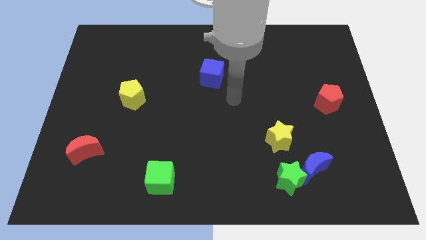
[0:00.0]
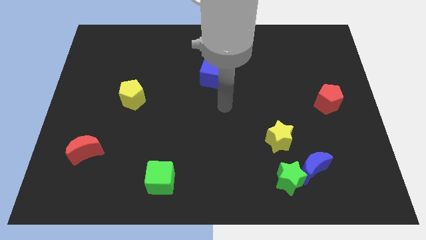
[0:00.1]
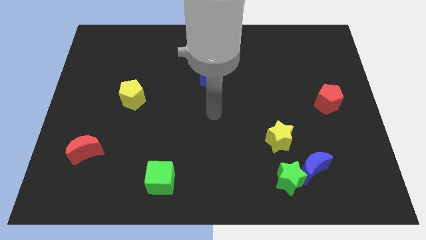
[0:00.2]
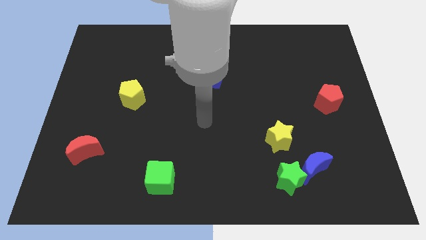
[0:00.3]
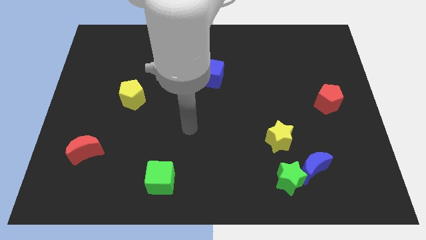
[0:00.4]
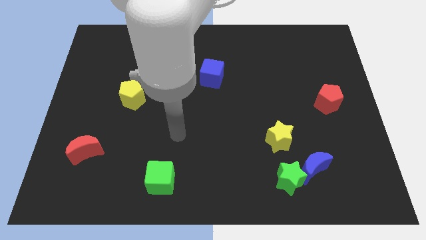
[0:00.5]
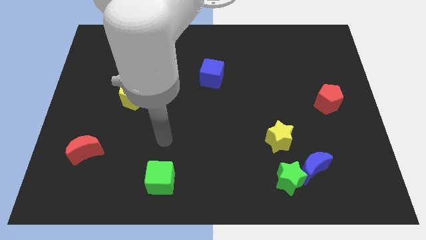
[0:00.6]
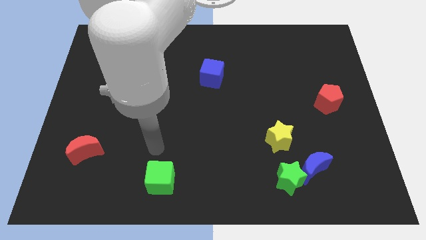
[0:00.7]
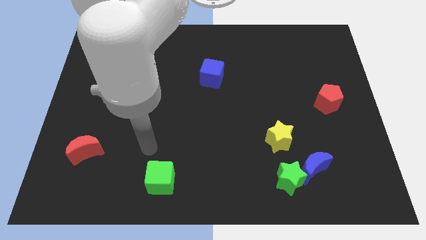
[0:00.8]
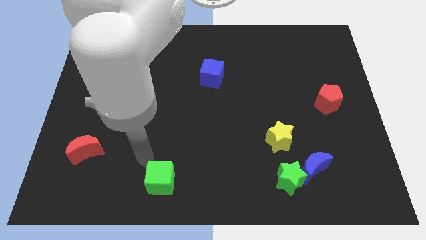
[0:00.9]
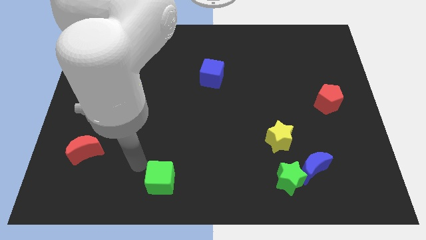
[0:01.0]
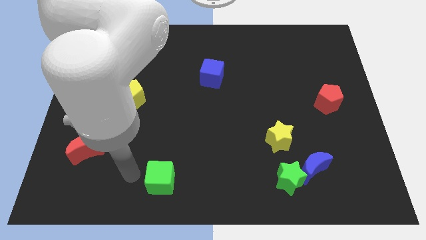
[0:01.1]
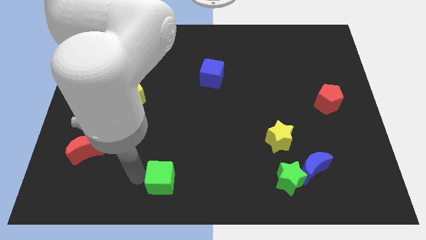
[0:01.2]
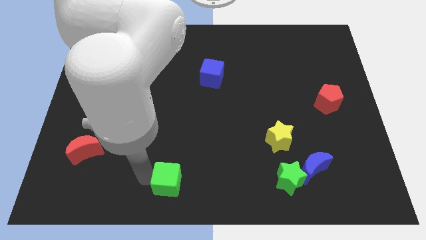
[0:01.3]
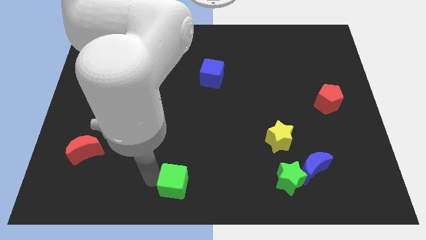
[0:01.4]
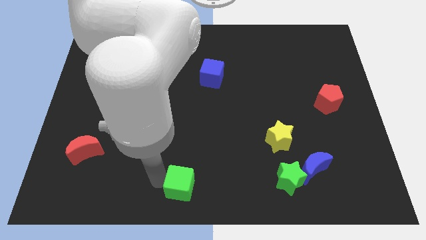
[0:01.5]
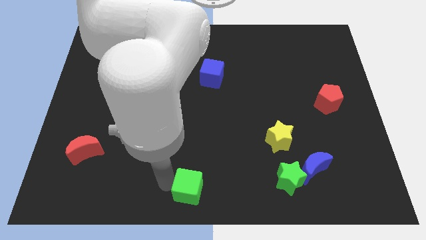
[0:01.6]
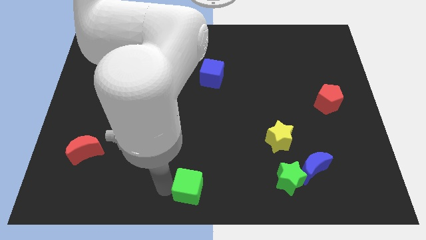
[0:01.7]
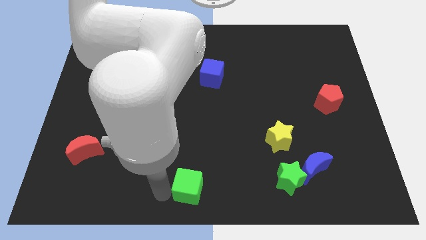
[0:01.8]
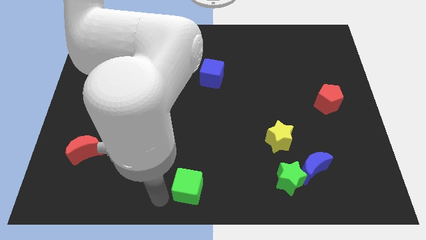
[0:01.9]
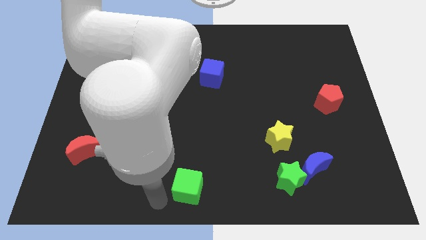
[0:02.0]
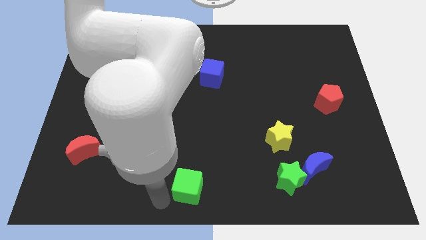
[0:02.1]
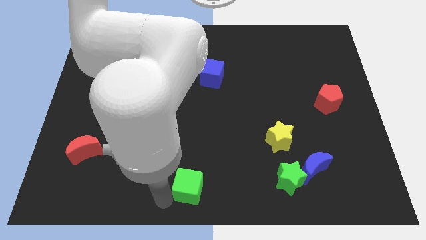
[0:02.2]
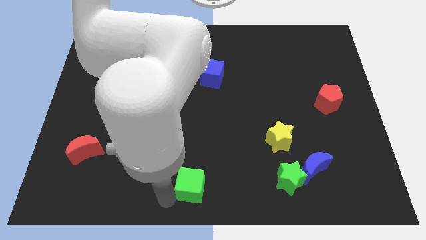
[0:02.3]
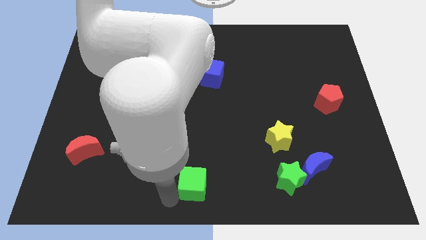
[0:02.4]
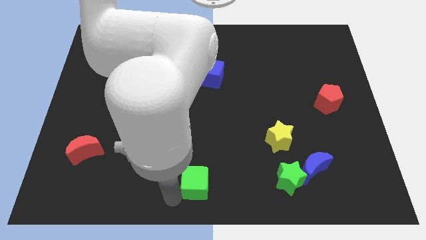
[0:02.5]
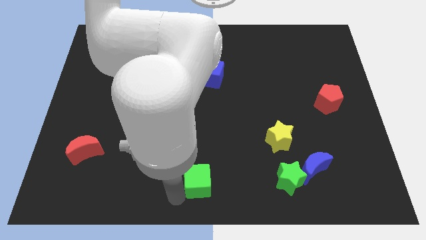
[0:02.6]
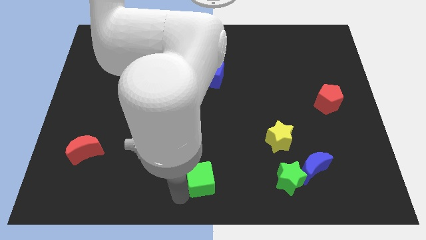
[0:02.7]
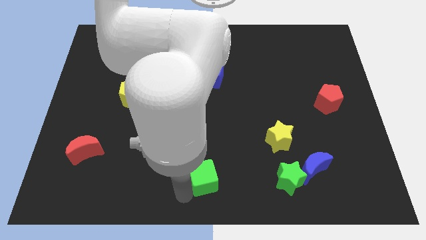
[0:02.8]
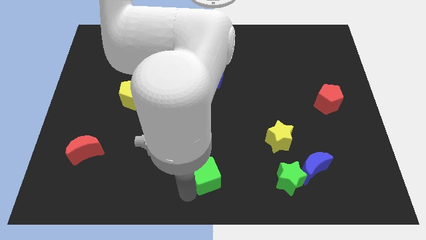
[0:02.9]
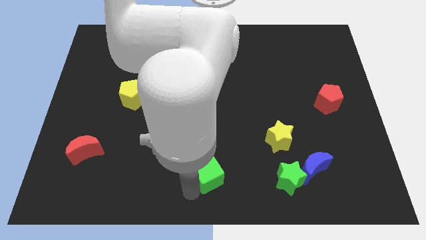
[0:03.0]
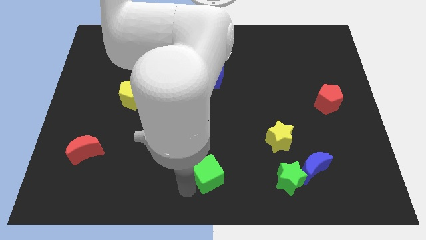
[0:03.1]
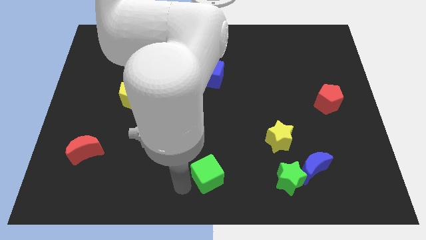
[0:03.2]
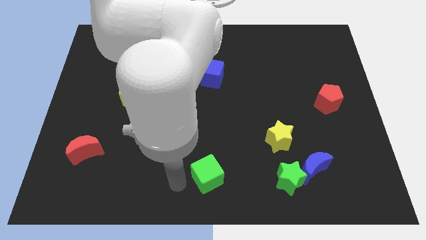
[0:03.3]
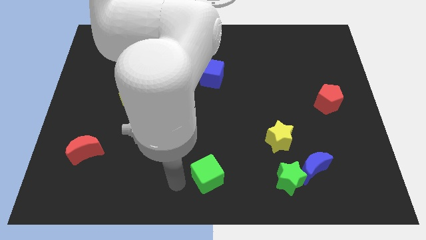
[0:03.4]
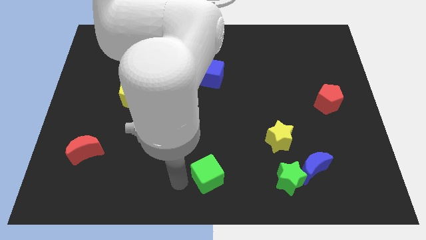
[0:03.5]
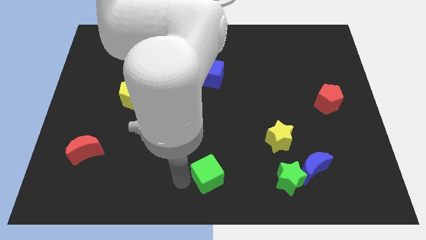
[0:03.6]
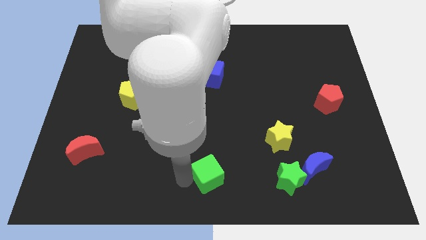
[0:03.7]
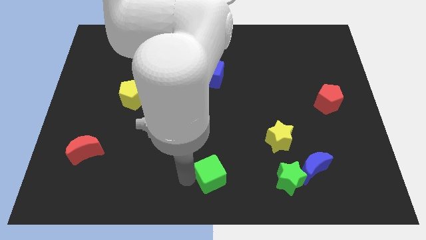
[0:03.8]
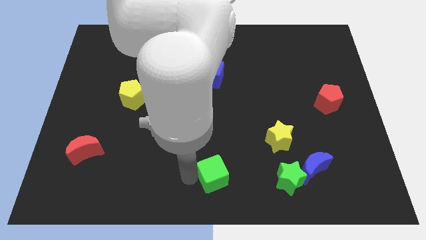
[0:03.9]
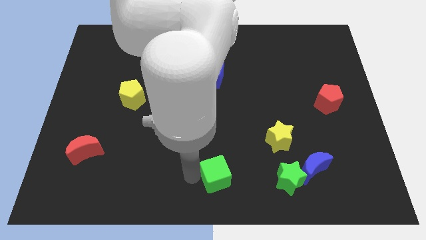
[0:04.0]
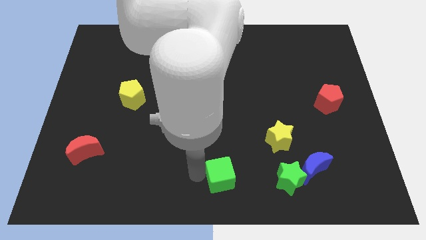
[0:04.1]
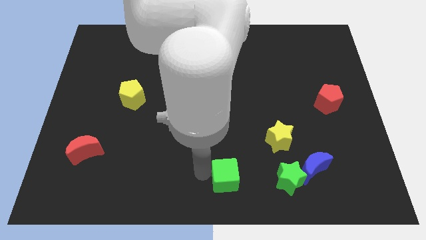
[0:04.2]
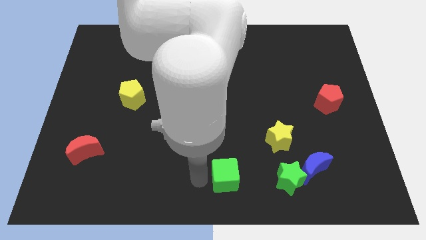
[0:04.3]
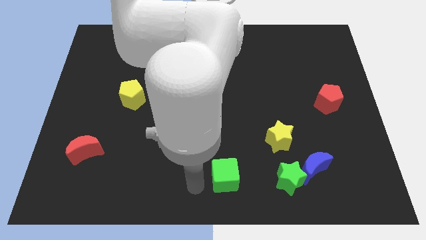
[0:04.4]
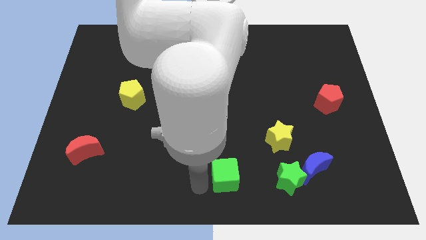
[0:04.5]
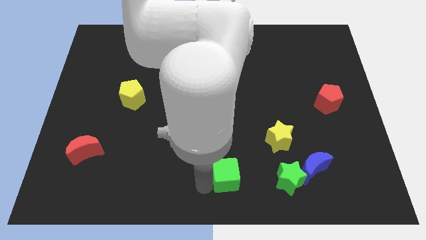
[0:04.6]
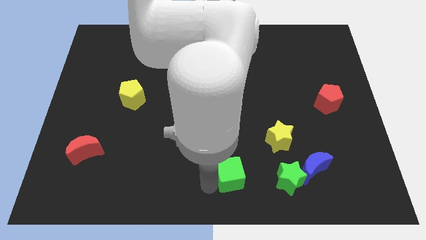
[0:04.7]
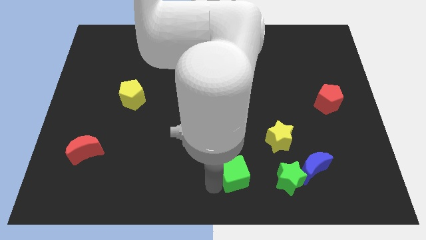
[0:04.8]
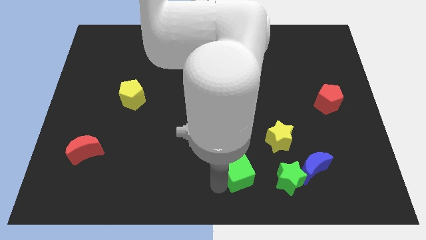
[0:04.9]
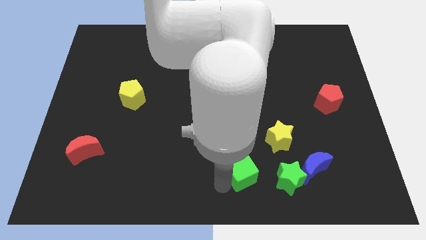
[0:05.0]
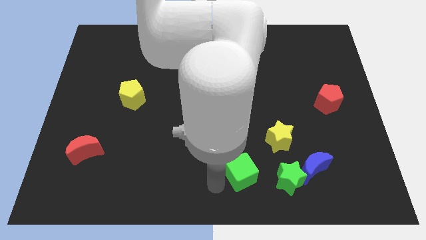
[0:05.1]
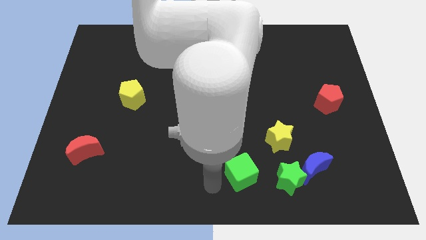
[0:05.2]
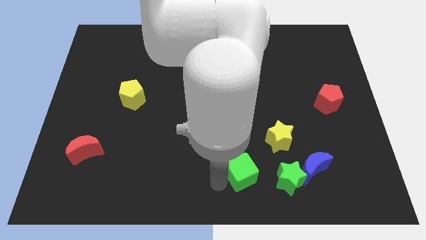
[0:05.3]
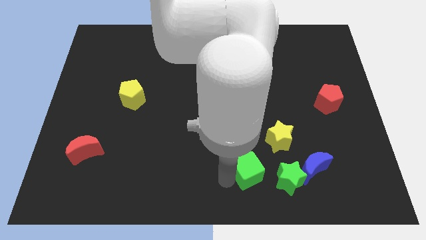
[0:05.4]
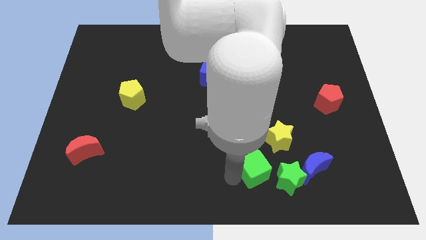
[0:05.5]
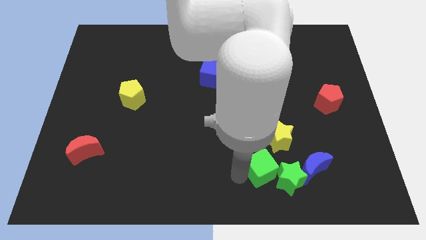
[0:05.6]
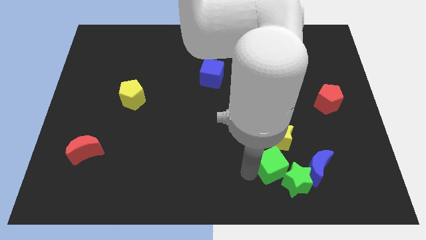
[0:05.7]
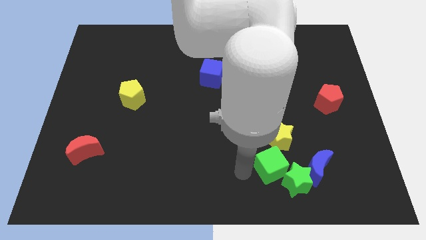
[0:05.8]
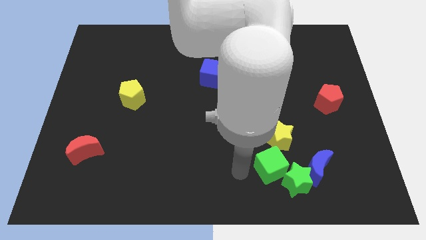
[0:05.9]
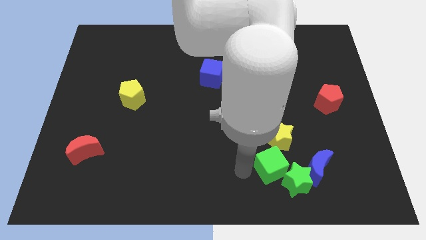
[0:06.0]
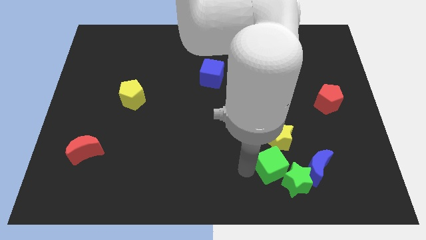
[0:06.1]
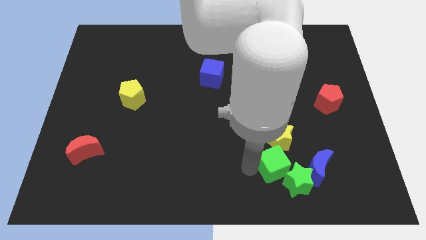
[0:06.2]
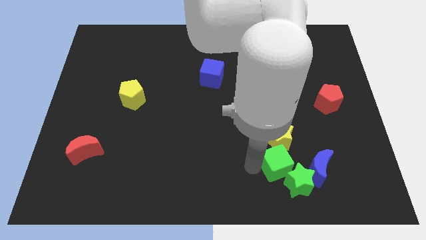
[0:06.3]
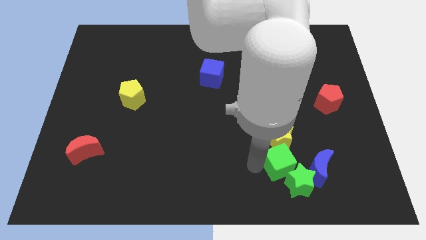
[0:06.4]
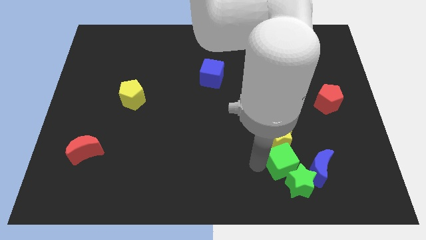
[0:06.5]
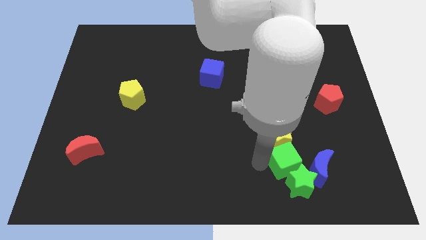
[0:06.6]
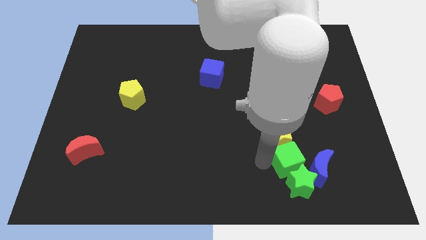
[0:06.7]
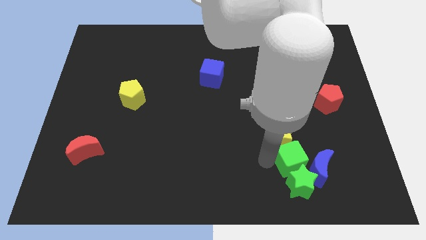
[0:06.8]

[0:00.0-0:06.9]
slide the green cube close to the blue moon
